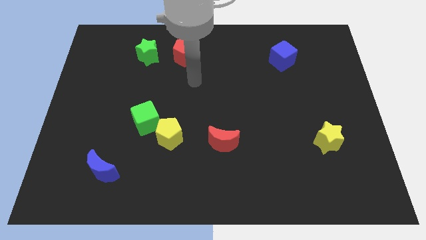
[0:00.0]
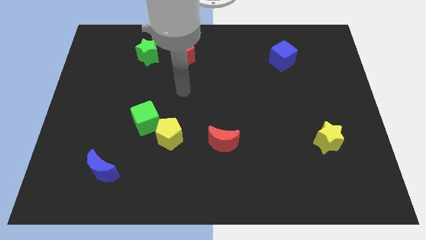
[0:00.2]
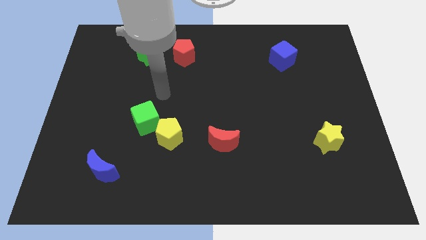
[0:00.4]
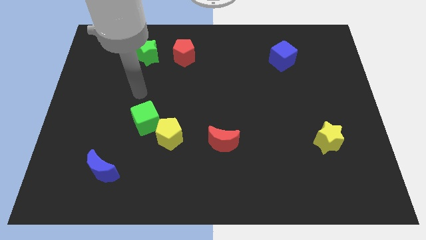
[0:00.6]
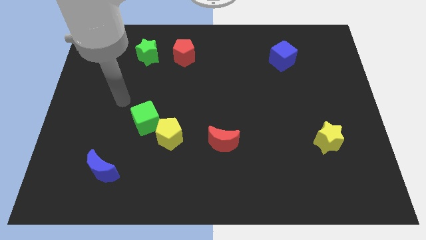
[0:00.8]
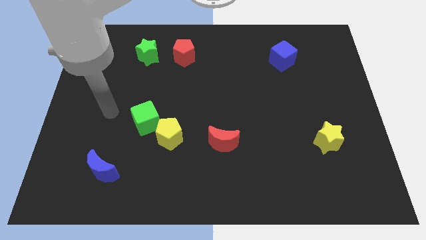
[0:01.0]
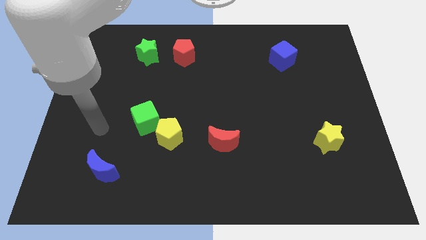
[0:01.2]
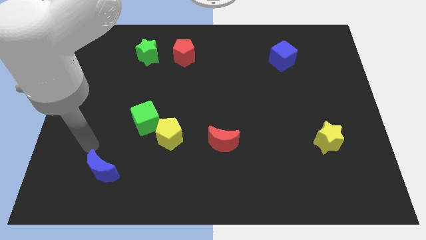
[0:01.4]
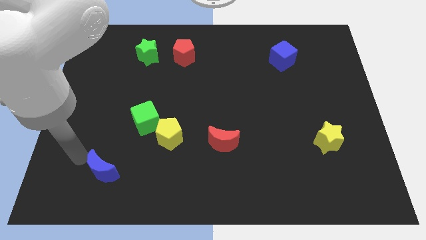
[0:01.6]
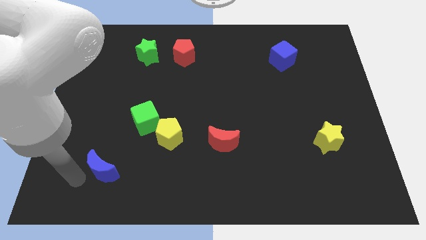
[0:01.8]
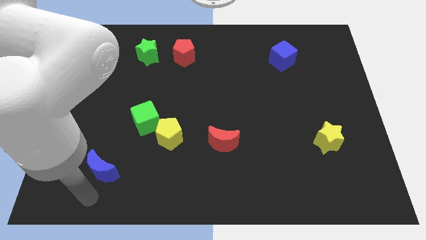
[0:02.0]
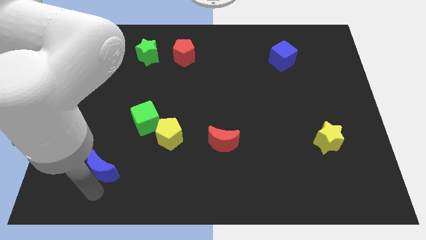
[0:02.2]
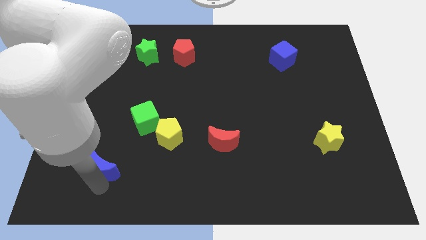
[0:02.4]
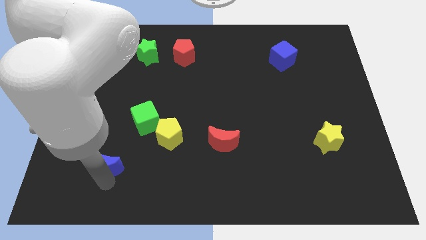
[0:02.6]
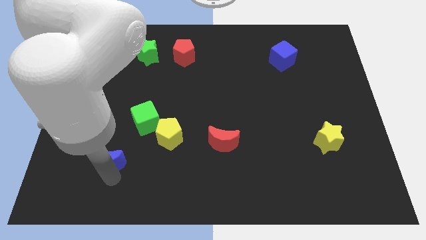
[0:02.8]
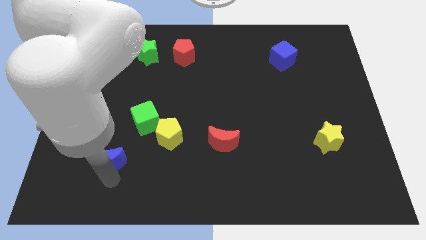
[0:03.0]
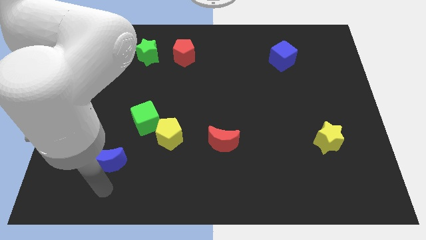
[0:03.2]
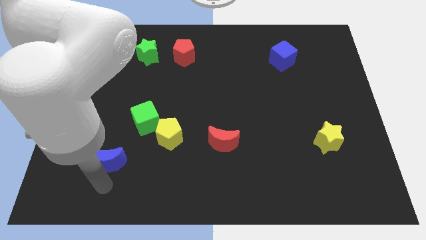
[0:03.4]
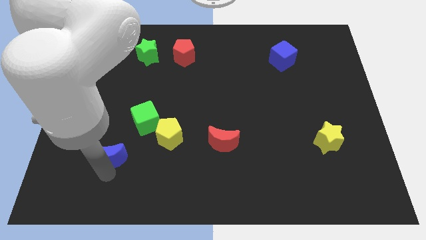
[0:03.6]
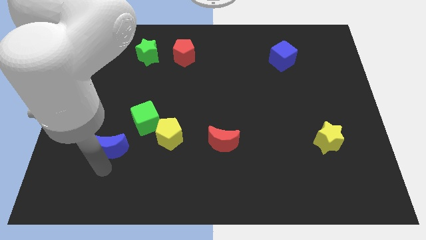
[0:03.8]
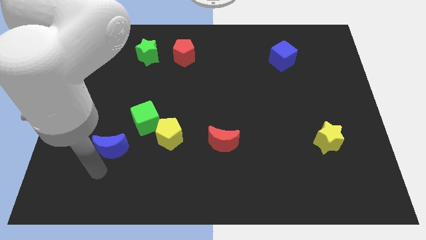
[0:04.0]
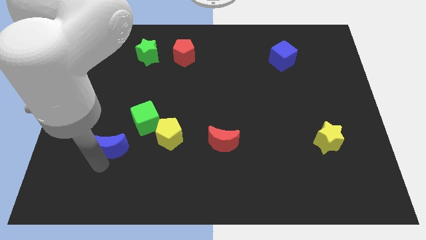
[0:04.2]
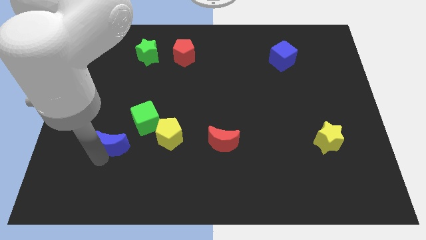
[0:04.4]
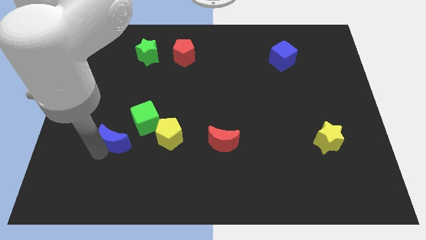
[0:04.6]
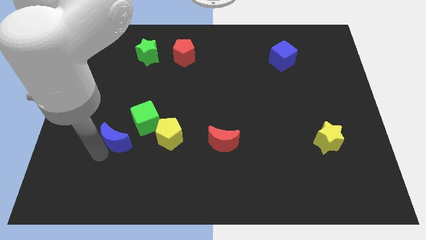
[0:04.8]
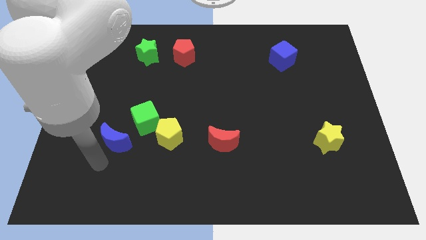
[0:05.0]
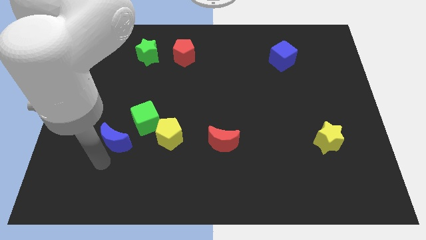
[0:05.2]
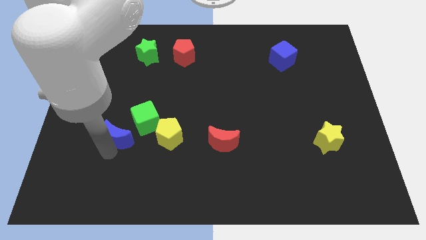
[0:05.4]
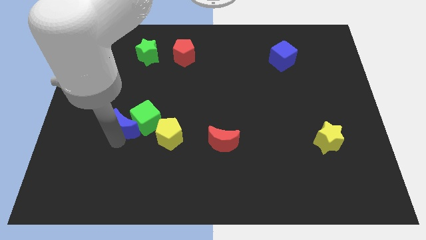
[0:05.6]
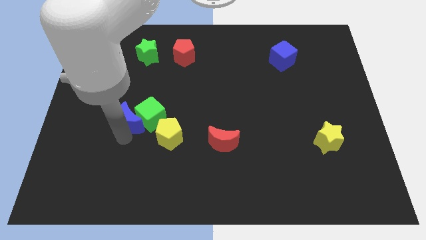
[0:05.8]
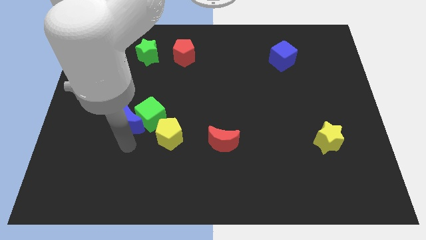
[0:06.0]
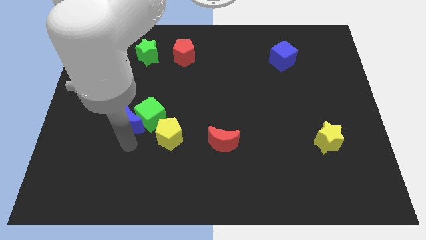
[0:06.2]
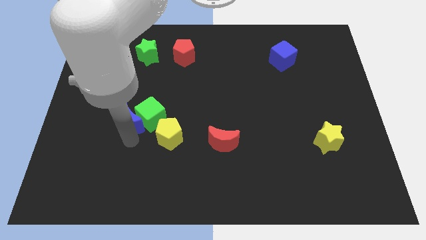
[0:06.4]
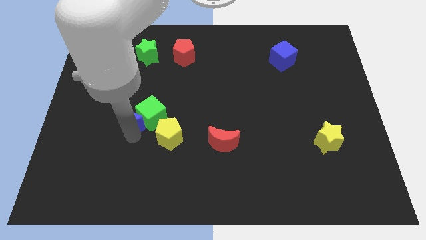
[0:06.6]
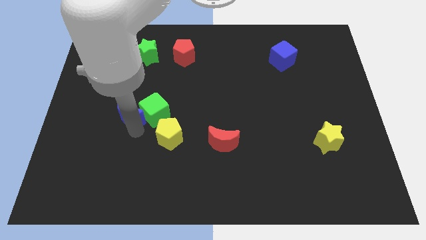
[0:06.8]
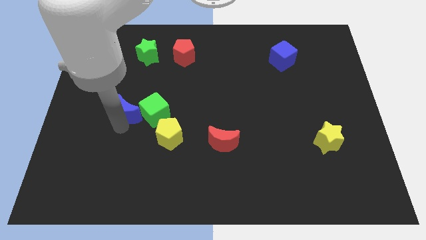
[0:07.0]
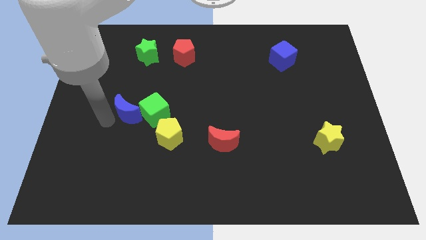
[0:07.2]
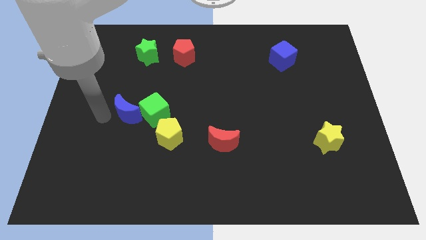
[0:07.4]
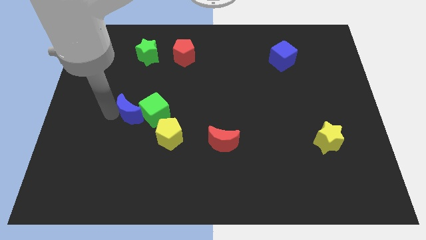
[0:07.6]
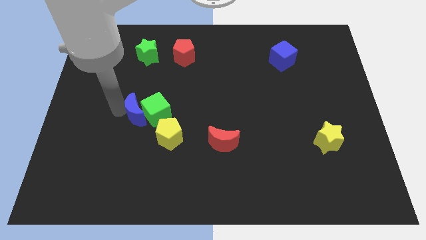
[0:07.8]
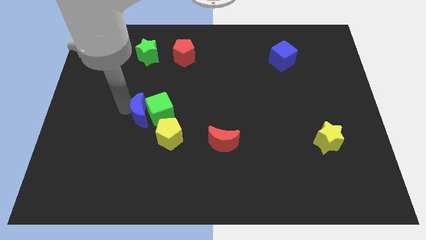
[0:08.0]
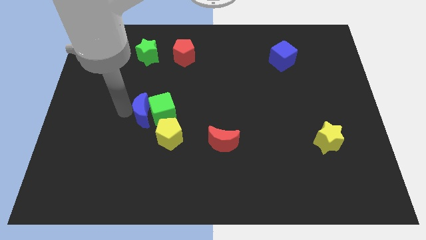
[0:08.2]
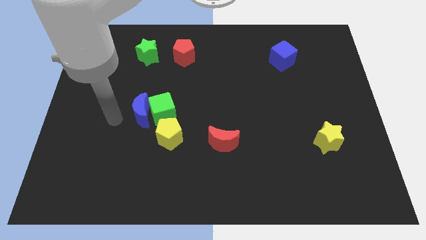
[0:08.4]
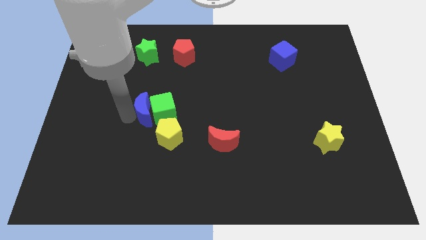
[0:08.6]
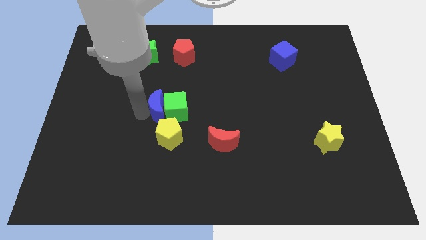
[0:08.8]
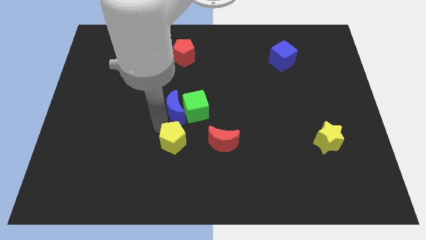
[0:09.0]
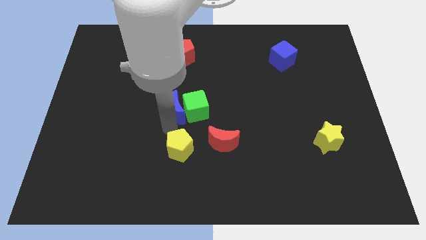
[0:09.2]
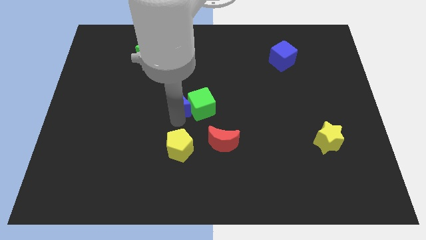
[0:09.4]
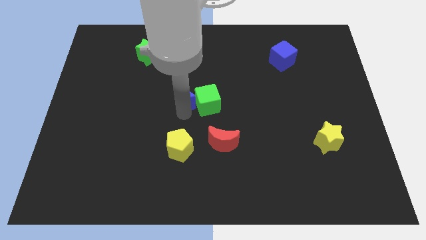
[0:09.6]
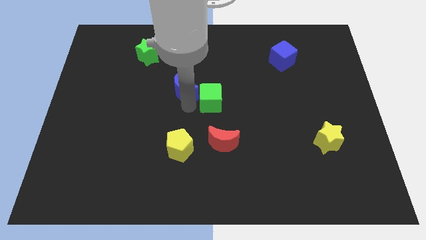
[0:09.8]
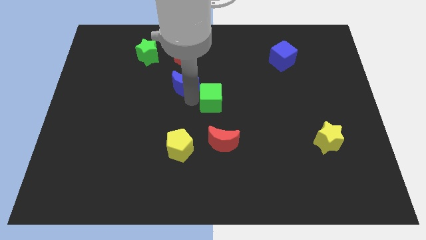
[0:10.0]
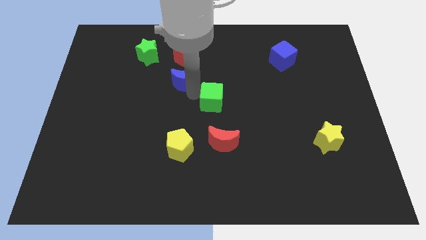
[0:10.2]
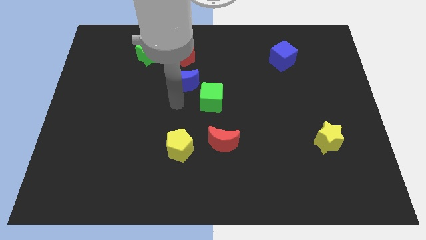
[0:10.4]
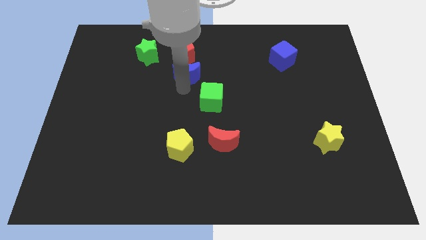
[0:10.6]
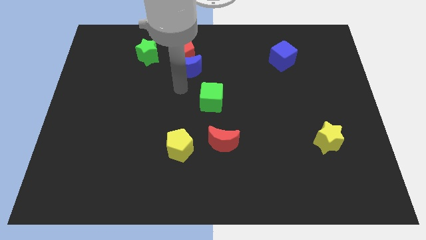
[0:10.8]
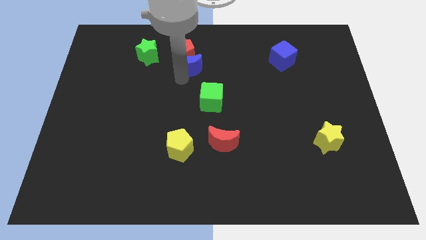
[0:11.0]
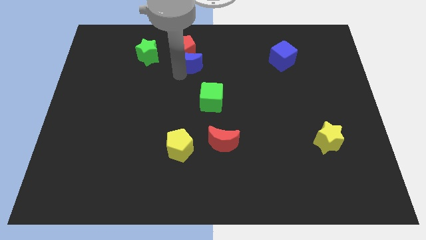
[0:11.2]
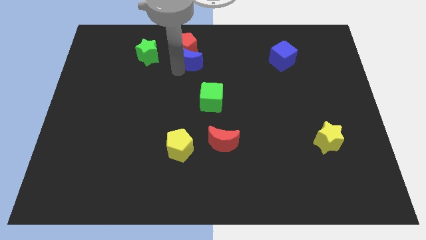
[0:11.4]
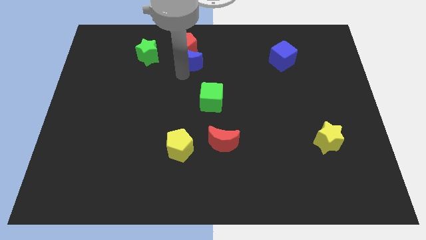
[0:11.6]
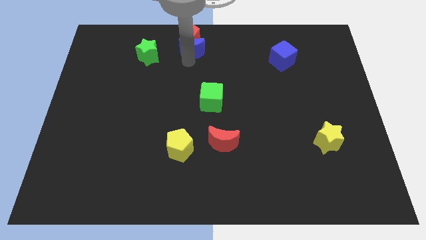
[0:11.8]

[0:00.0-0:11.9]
move the blue moon to the top side
